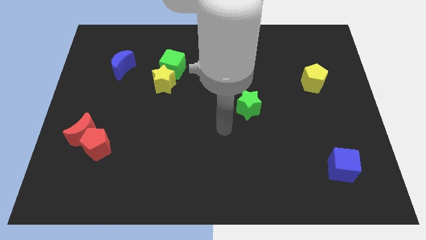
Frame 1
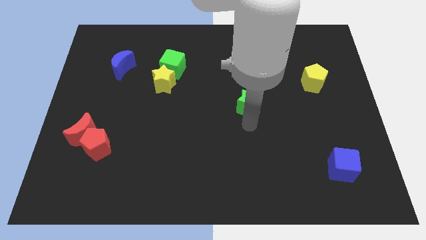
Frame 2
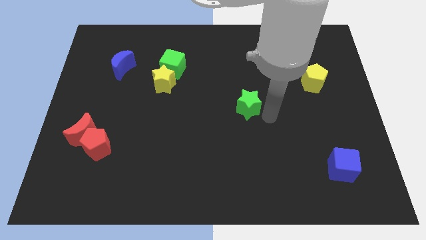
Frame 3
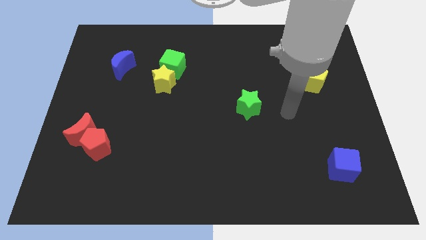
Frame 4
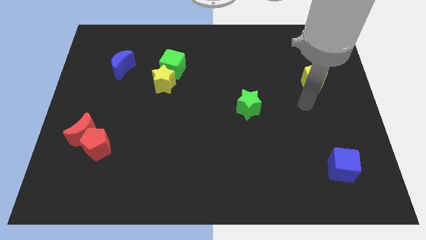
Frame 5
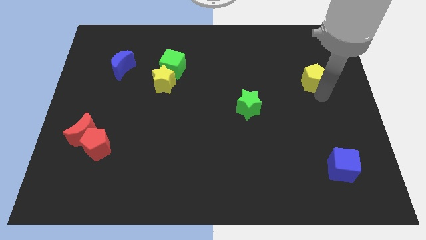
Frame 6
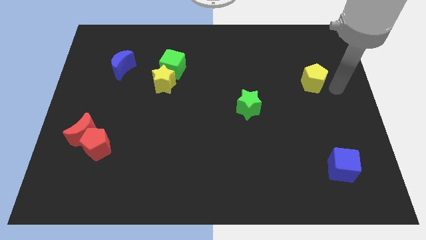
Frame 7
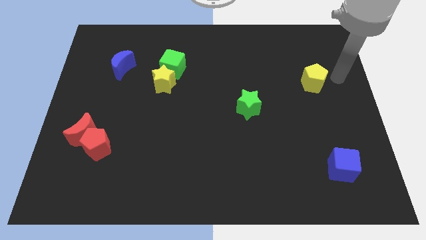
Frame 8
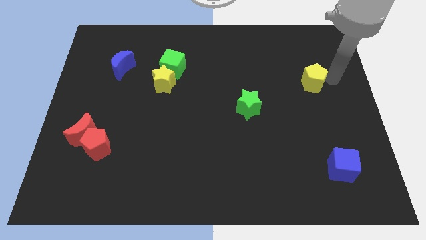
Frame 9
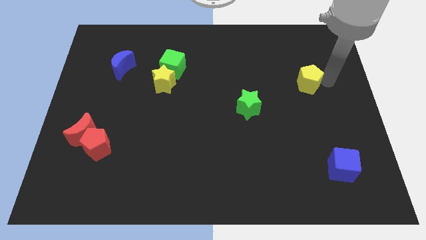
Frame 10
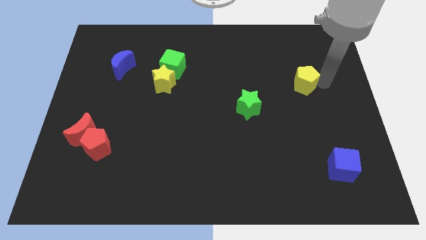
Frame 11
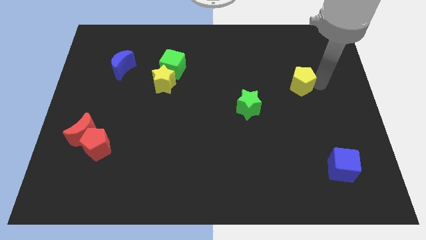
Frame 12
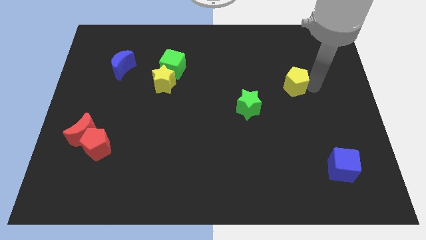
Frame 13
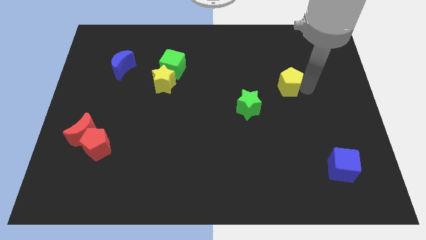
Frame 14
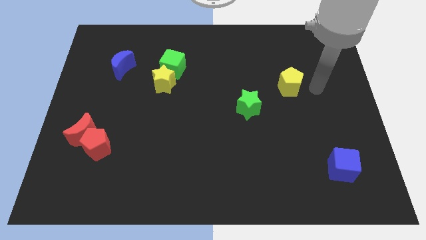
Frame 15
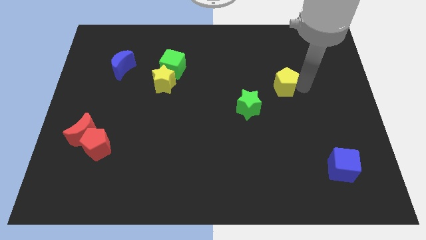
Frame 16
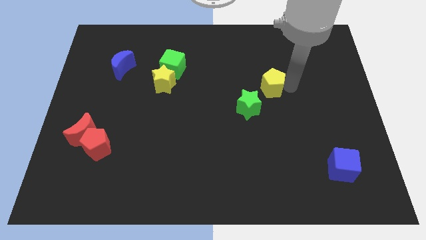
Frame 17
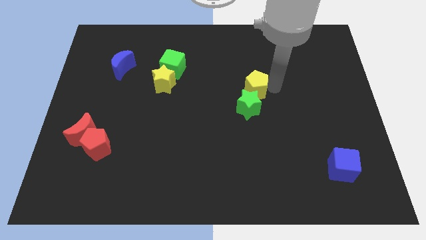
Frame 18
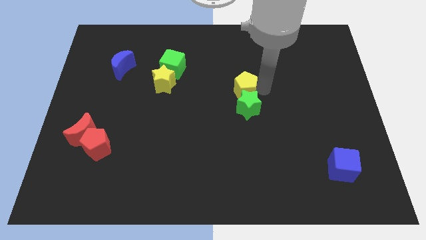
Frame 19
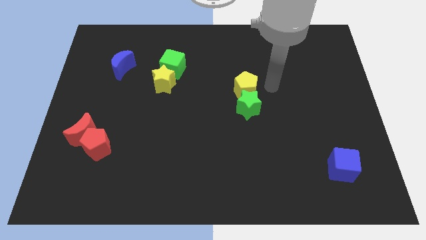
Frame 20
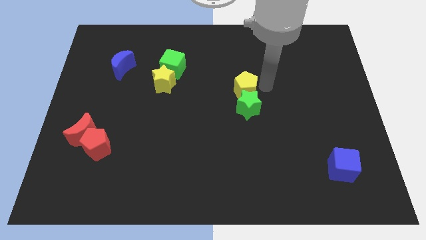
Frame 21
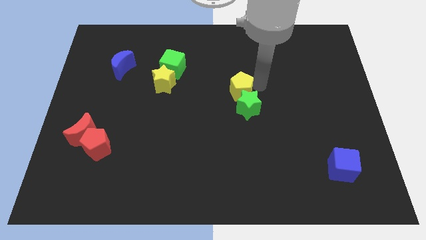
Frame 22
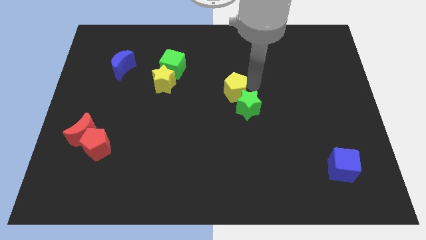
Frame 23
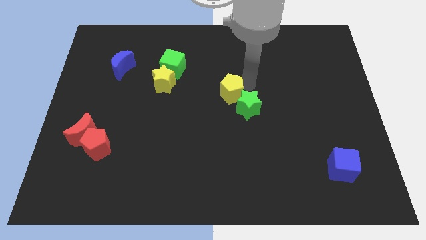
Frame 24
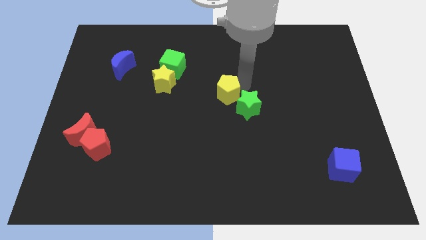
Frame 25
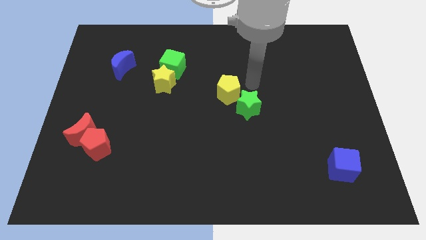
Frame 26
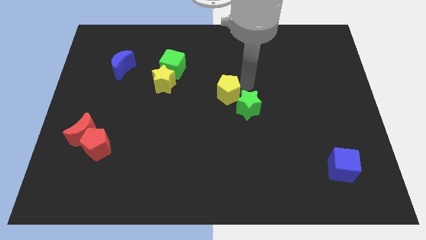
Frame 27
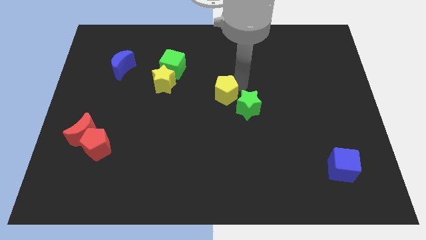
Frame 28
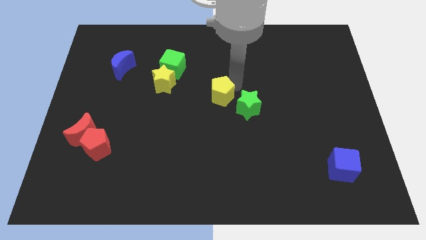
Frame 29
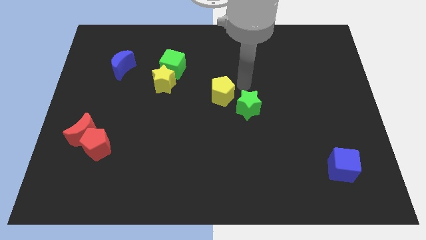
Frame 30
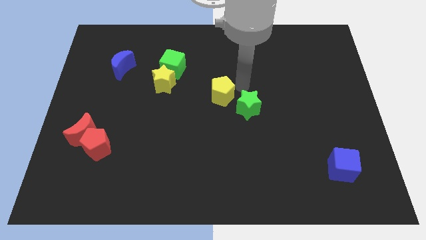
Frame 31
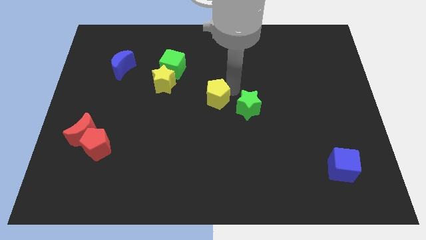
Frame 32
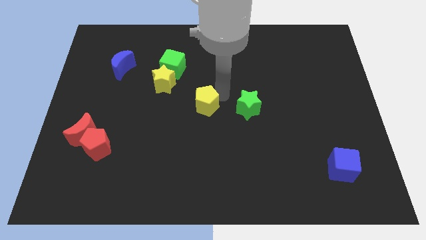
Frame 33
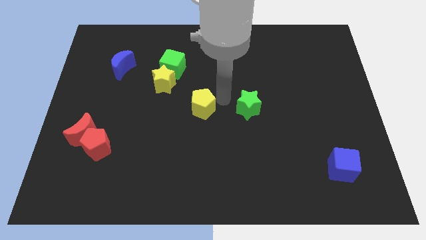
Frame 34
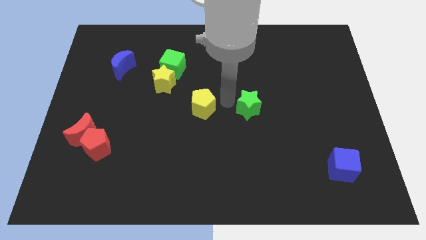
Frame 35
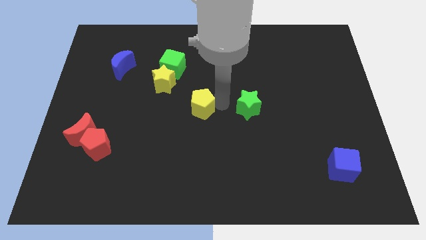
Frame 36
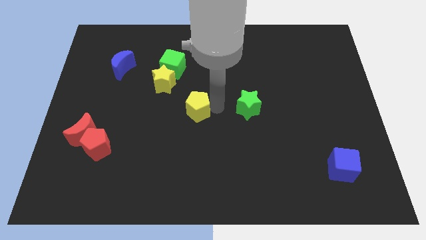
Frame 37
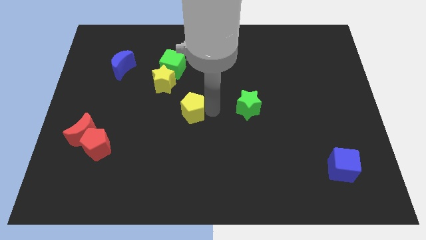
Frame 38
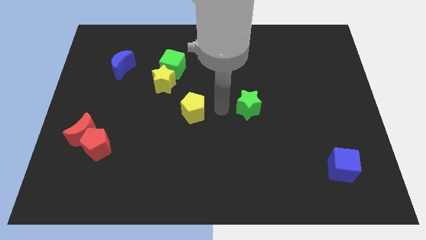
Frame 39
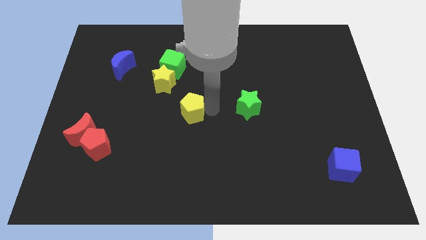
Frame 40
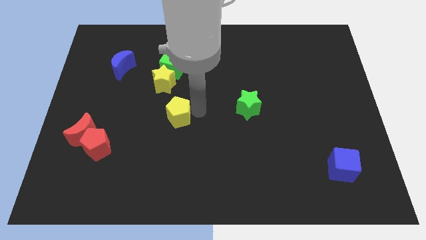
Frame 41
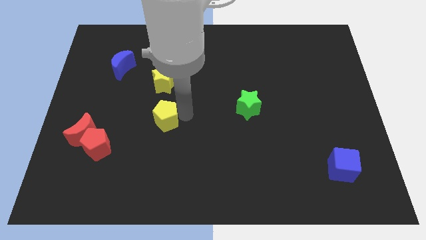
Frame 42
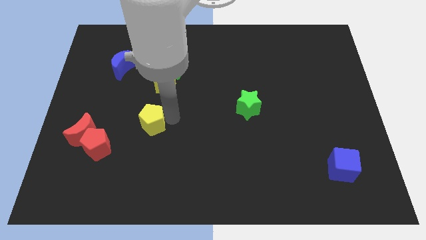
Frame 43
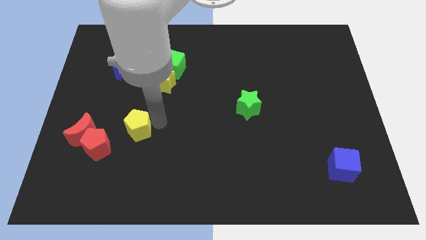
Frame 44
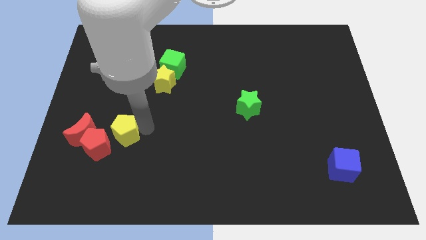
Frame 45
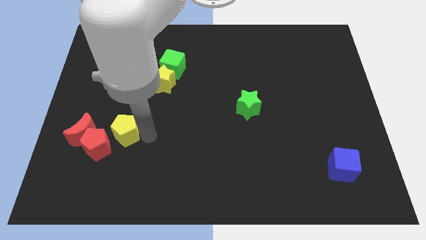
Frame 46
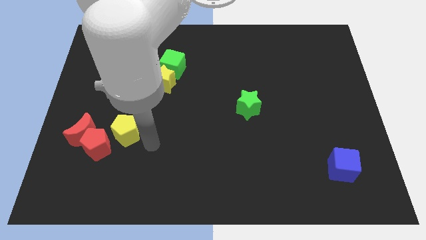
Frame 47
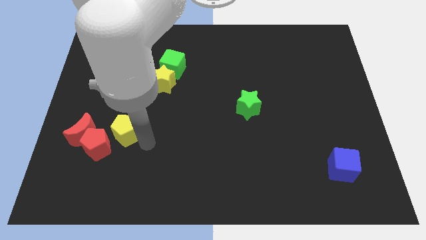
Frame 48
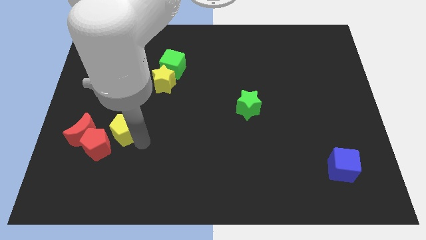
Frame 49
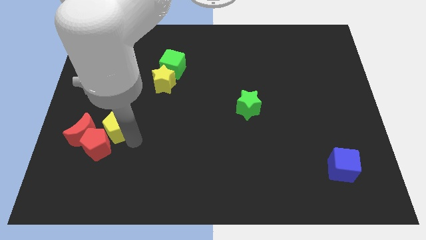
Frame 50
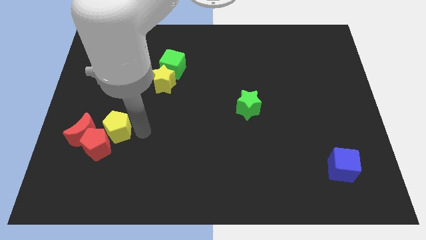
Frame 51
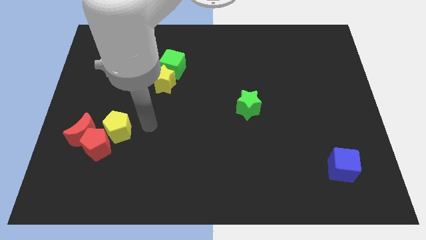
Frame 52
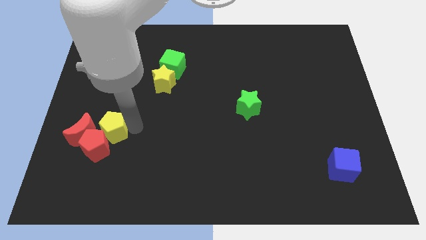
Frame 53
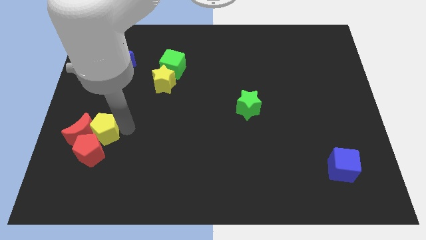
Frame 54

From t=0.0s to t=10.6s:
move the yellow pentagon to the red moon

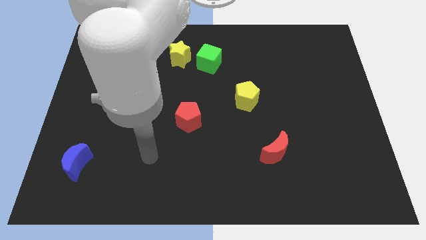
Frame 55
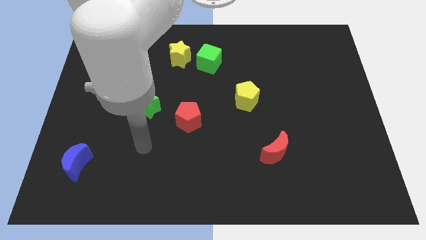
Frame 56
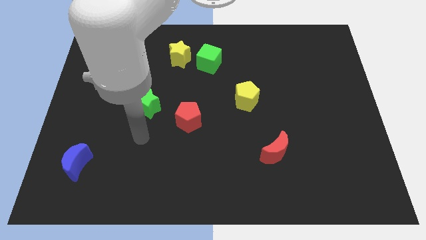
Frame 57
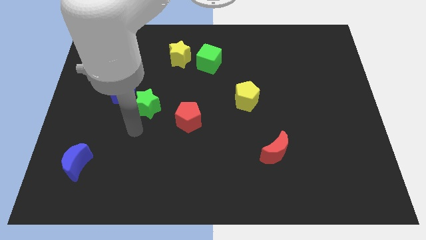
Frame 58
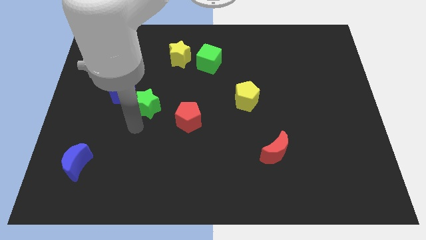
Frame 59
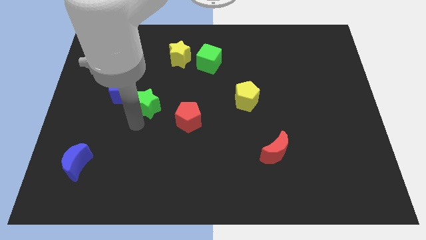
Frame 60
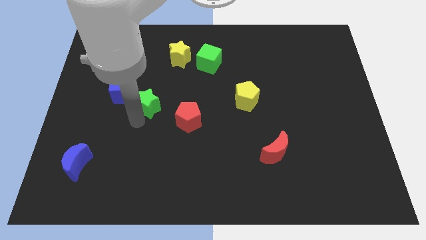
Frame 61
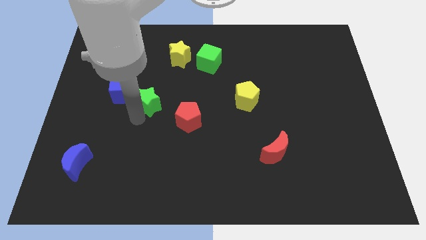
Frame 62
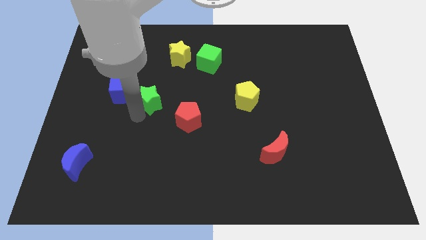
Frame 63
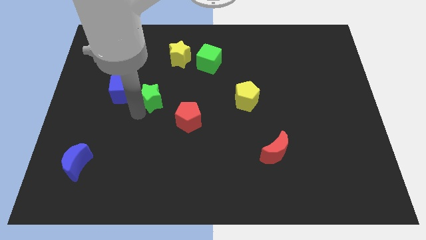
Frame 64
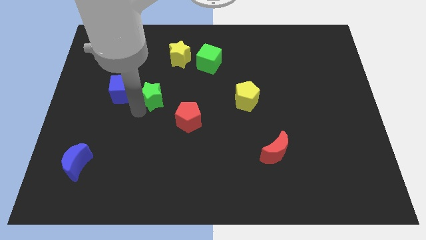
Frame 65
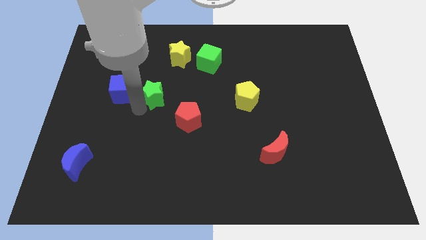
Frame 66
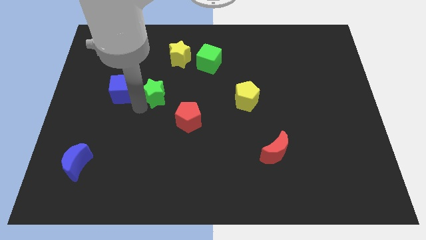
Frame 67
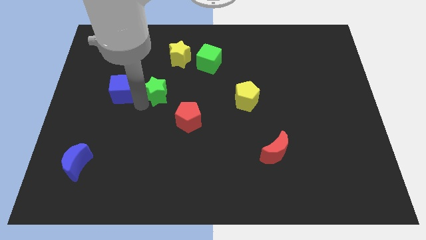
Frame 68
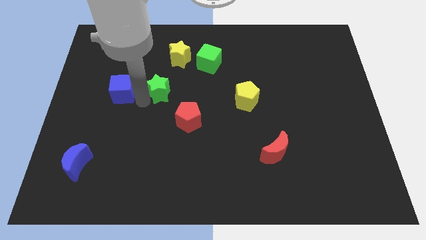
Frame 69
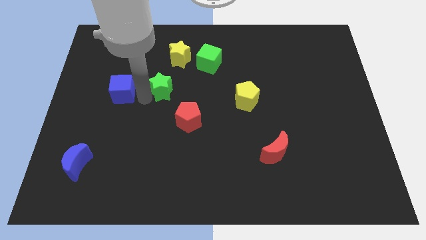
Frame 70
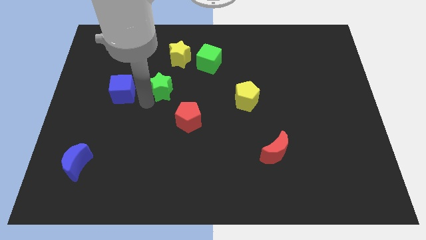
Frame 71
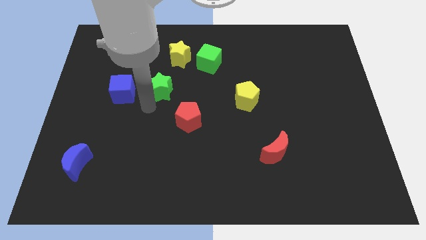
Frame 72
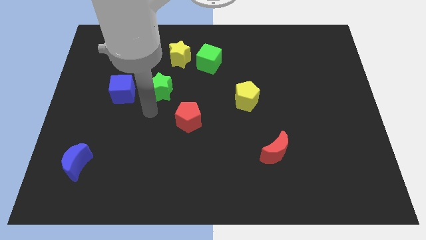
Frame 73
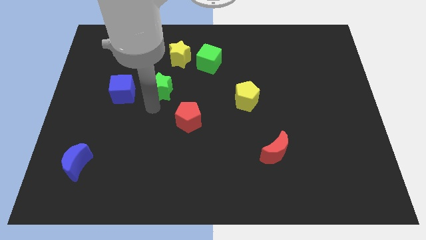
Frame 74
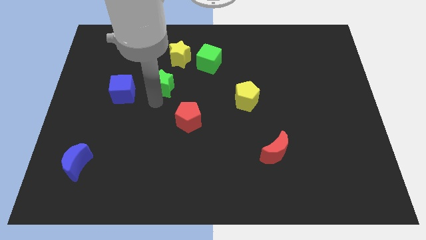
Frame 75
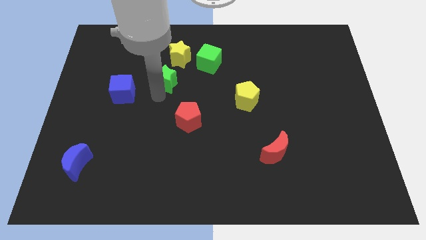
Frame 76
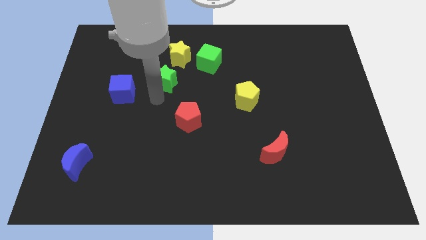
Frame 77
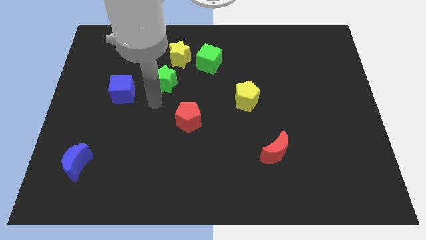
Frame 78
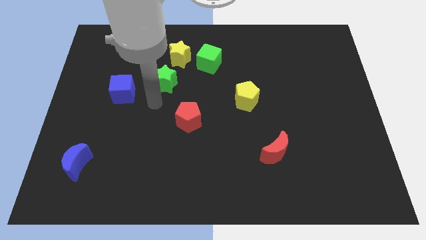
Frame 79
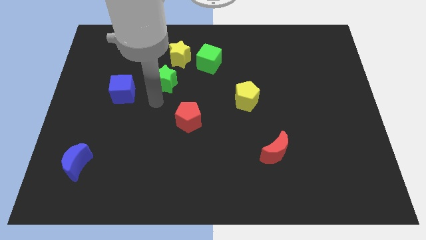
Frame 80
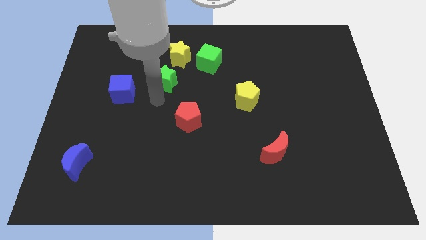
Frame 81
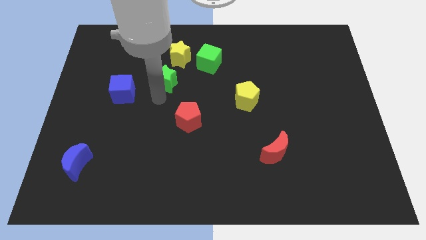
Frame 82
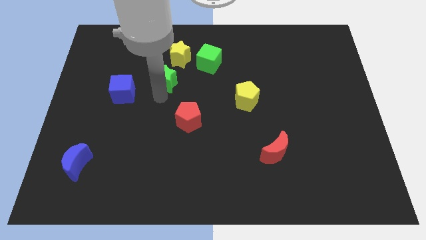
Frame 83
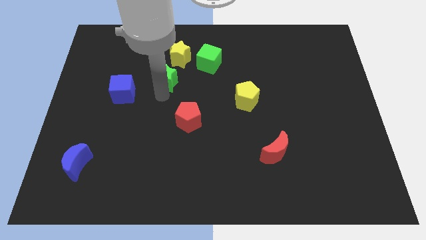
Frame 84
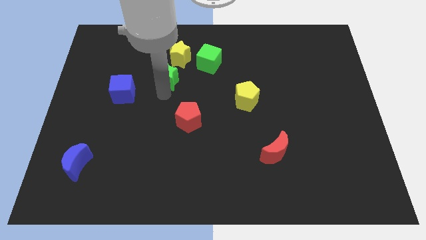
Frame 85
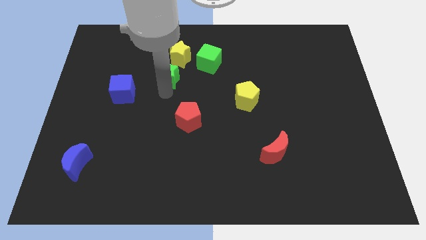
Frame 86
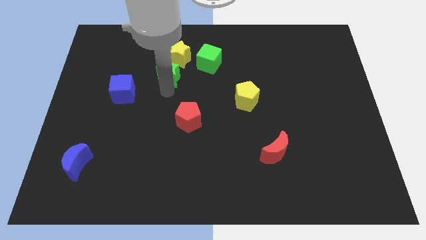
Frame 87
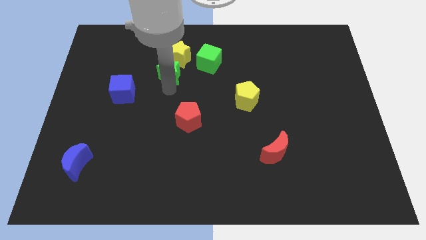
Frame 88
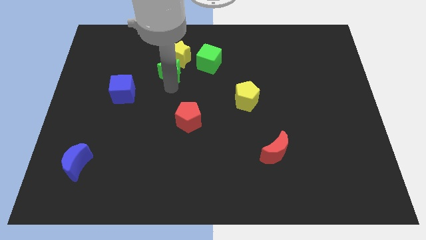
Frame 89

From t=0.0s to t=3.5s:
slide the green star towards the yellow star
